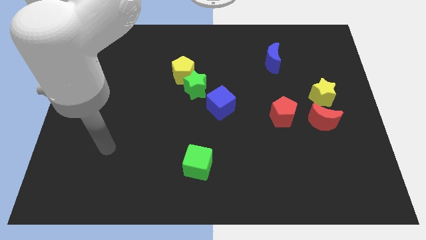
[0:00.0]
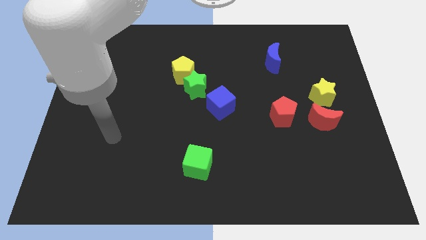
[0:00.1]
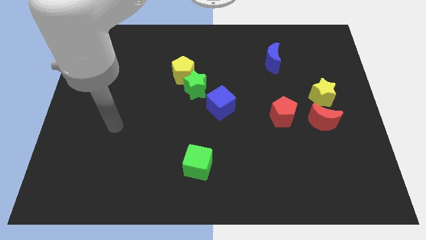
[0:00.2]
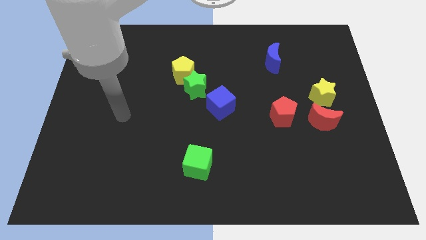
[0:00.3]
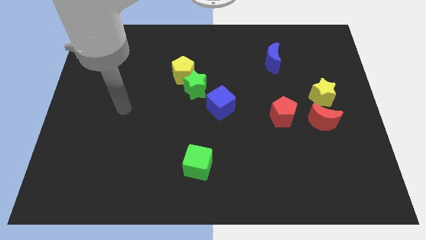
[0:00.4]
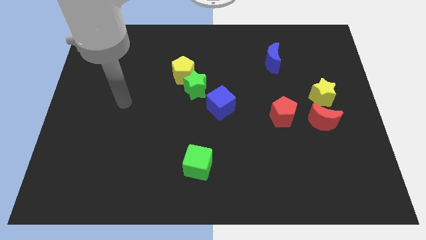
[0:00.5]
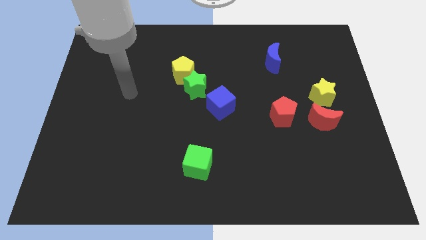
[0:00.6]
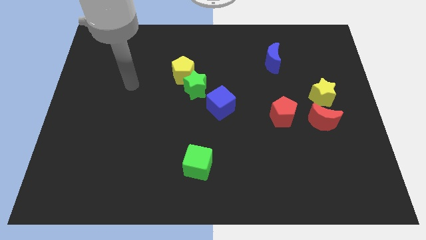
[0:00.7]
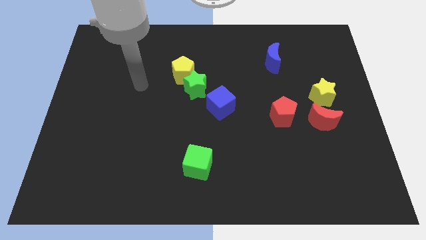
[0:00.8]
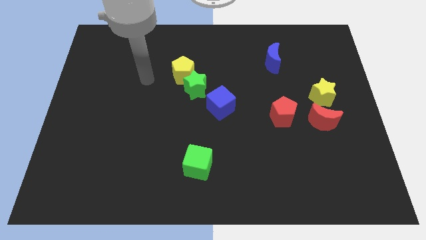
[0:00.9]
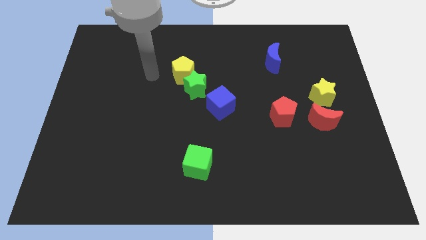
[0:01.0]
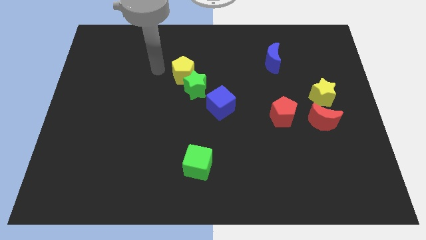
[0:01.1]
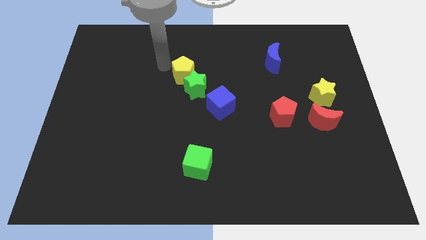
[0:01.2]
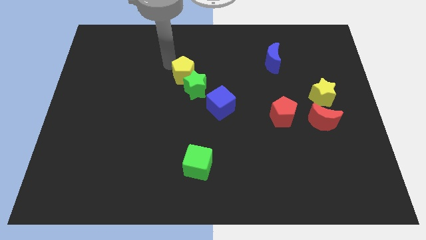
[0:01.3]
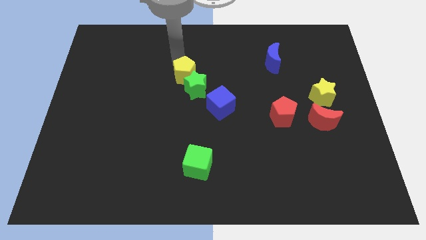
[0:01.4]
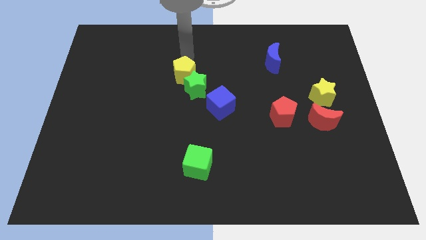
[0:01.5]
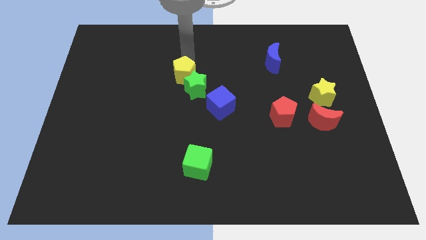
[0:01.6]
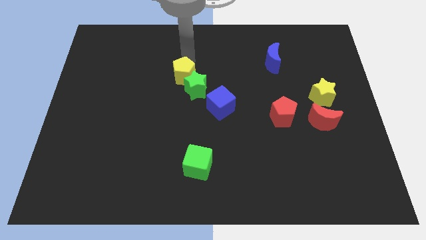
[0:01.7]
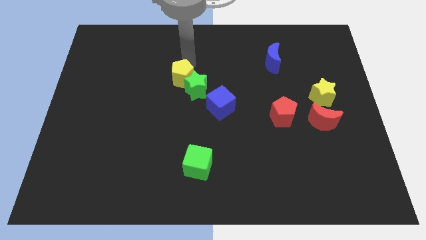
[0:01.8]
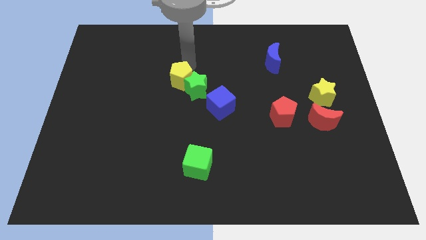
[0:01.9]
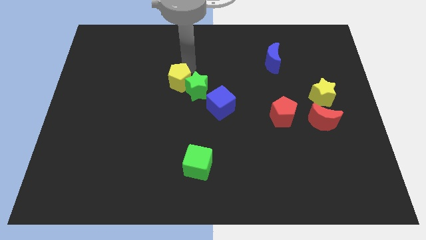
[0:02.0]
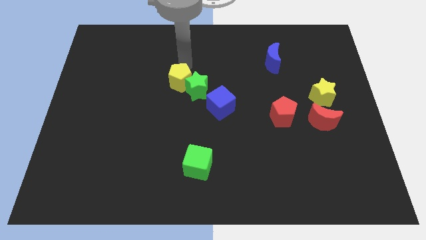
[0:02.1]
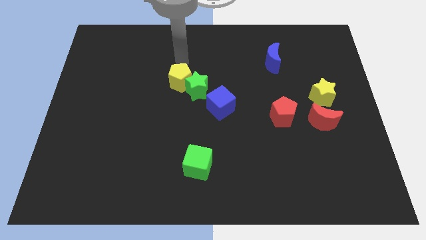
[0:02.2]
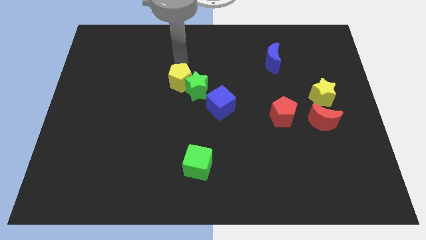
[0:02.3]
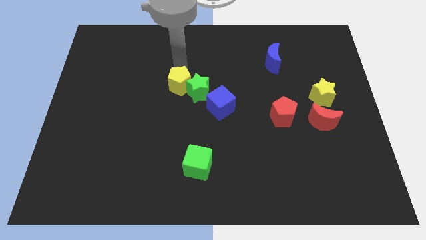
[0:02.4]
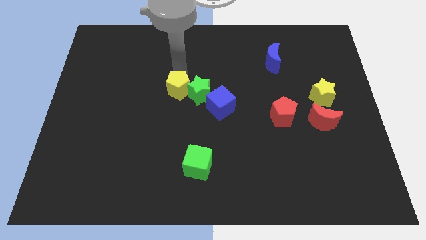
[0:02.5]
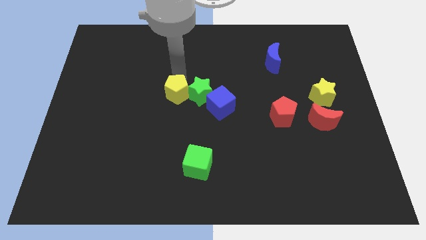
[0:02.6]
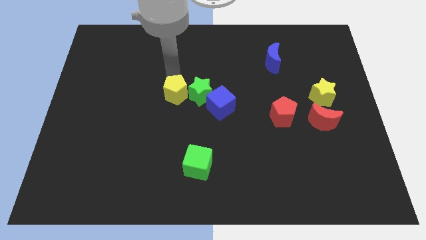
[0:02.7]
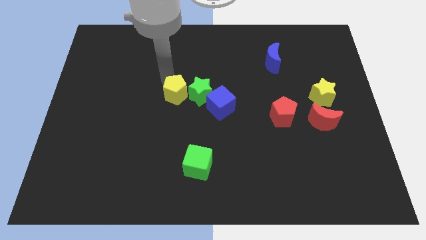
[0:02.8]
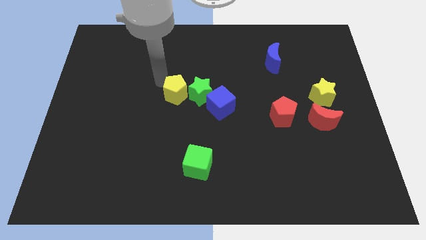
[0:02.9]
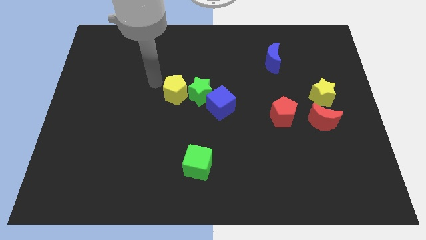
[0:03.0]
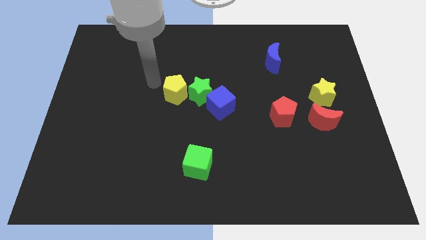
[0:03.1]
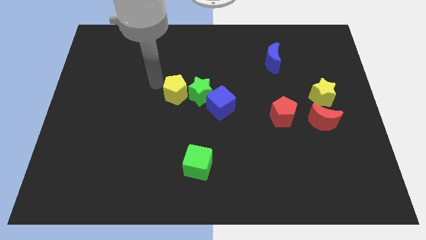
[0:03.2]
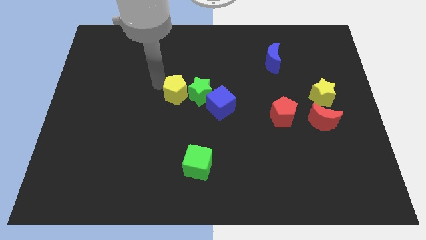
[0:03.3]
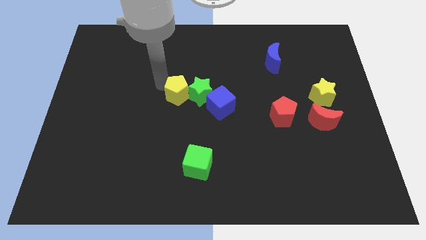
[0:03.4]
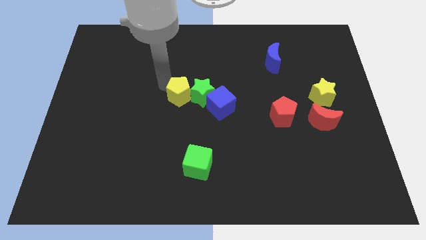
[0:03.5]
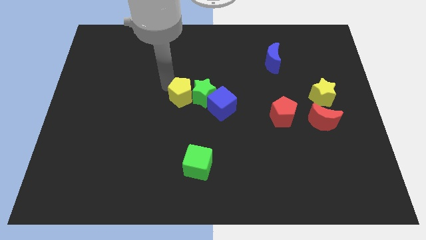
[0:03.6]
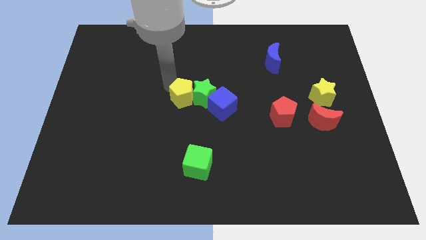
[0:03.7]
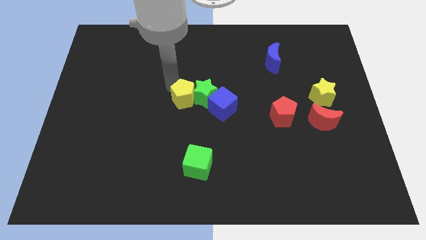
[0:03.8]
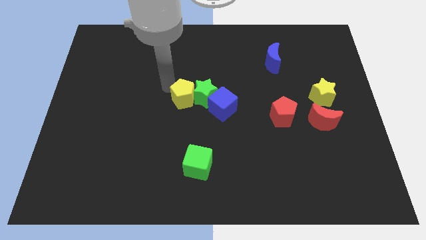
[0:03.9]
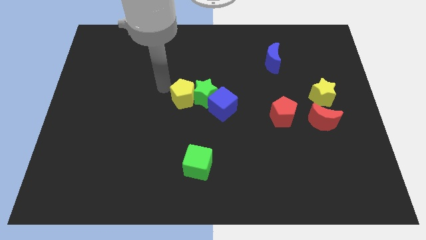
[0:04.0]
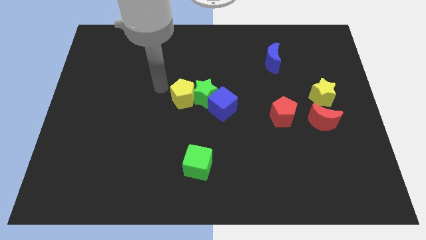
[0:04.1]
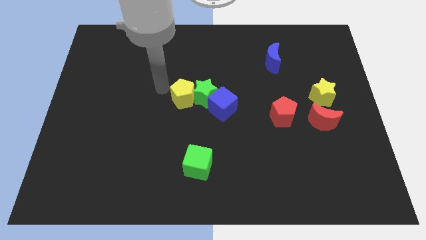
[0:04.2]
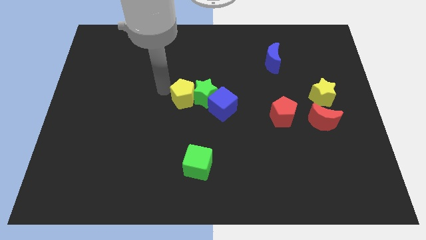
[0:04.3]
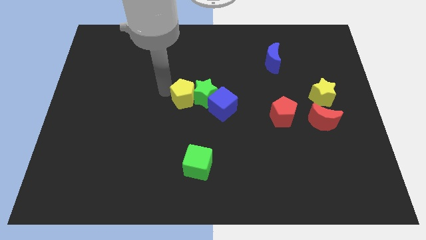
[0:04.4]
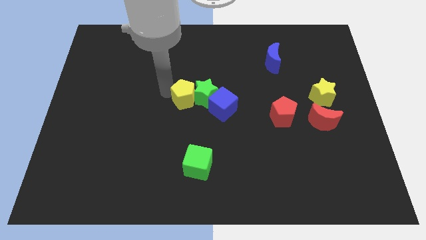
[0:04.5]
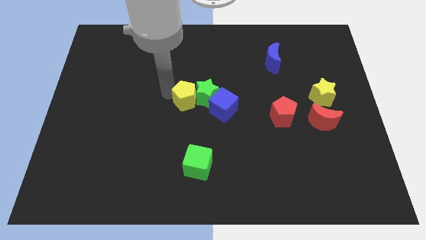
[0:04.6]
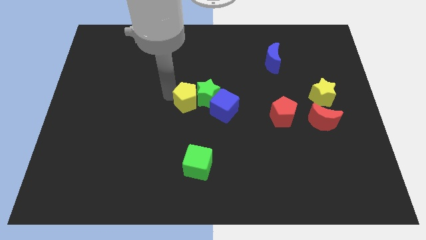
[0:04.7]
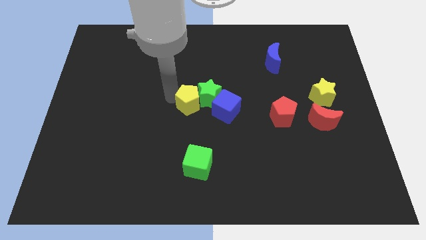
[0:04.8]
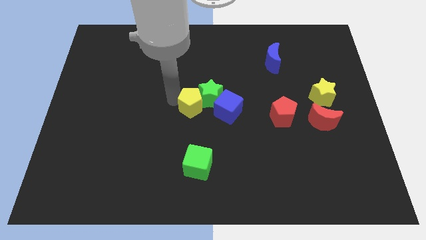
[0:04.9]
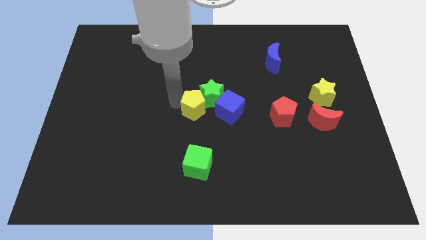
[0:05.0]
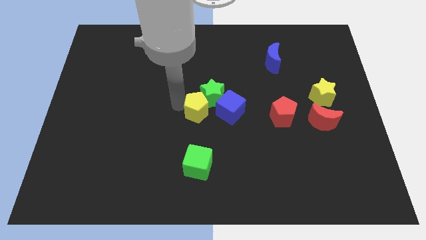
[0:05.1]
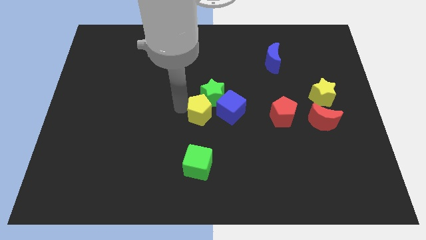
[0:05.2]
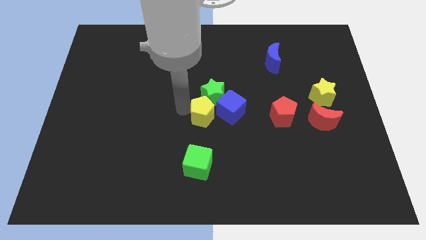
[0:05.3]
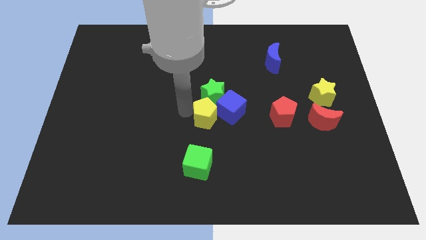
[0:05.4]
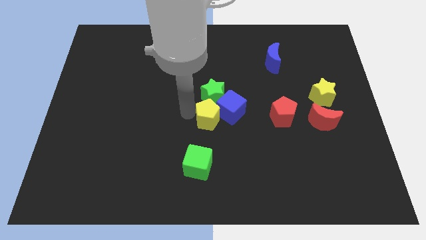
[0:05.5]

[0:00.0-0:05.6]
slide the yellow pentagon to the blue cube

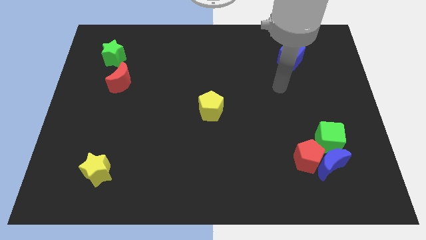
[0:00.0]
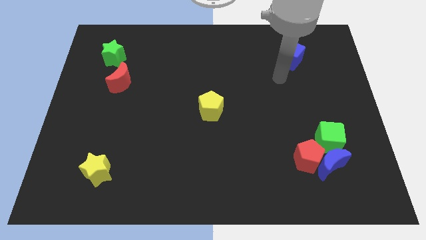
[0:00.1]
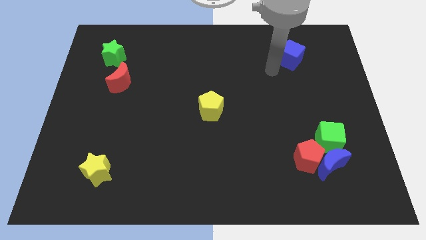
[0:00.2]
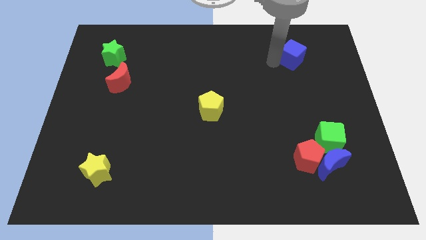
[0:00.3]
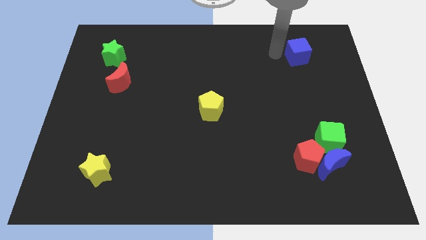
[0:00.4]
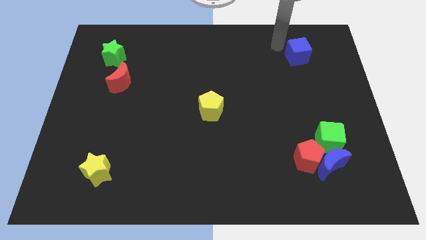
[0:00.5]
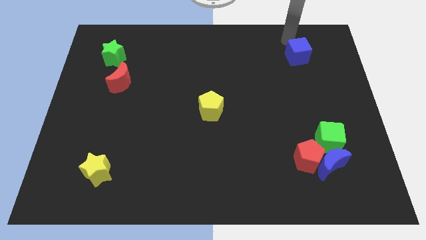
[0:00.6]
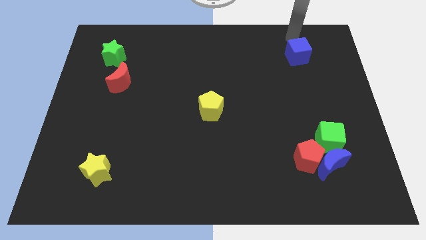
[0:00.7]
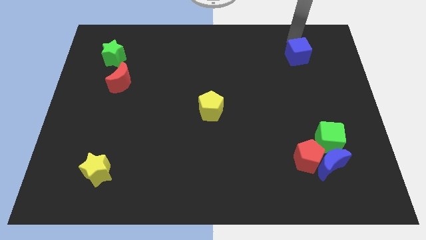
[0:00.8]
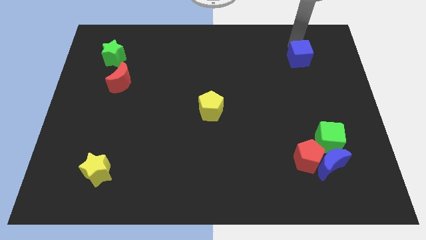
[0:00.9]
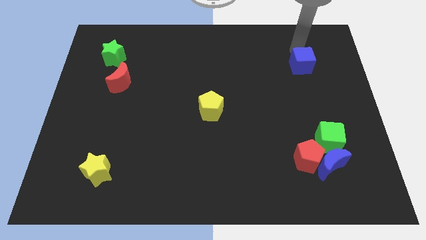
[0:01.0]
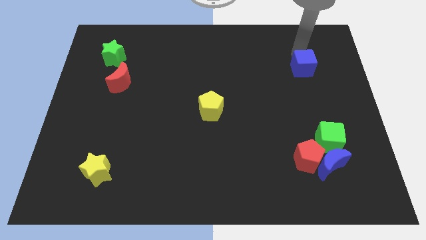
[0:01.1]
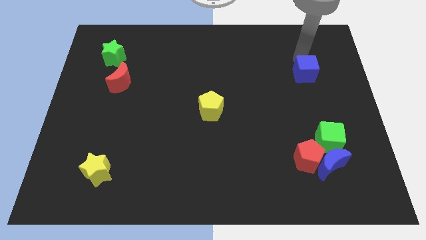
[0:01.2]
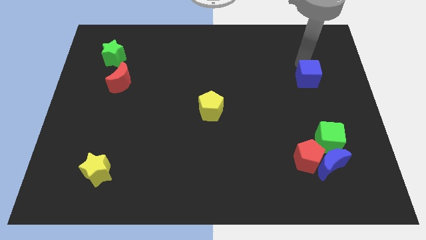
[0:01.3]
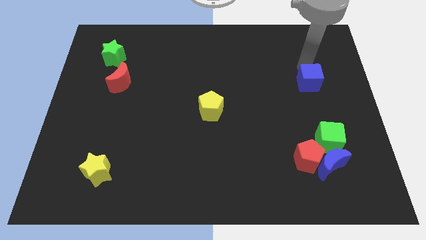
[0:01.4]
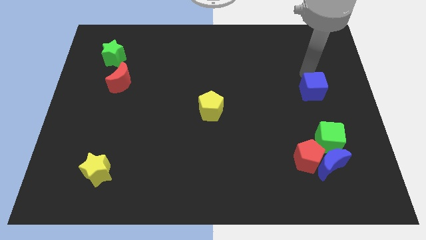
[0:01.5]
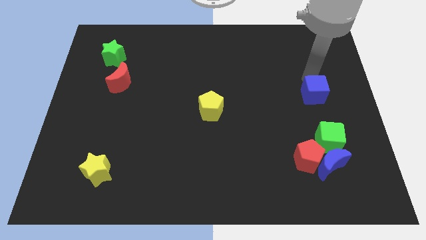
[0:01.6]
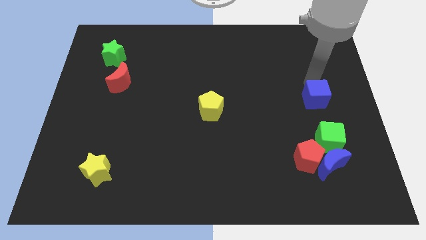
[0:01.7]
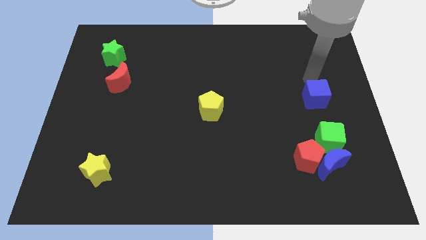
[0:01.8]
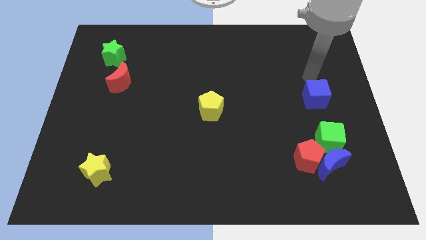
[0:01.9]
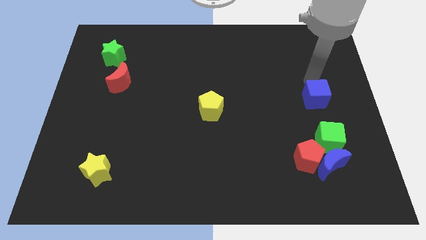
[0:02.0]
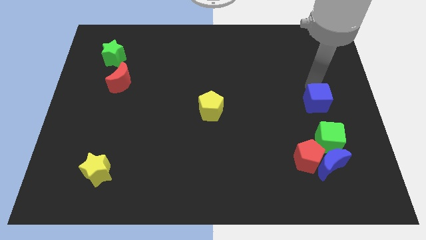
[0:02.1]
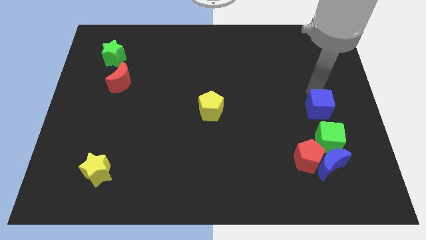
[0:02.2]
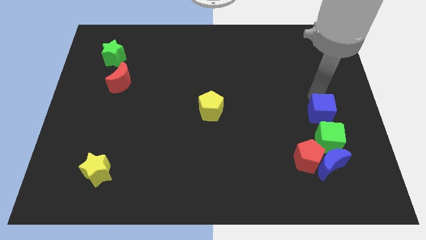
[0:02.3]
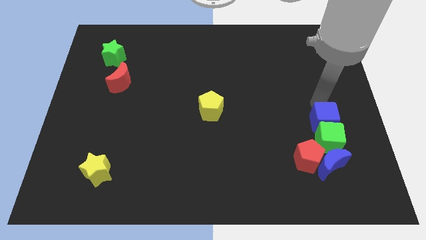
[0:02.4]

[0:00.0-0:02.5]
slide the blue cube towards the green cube

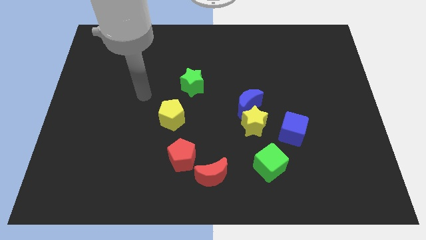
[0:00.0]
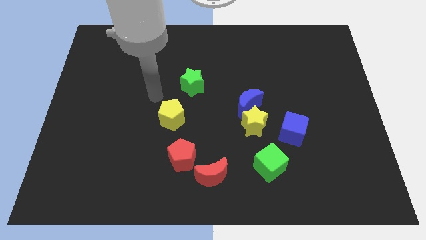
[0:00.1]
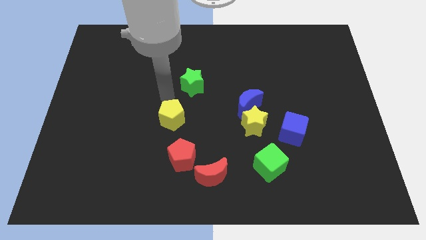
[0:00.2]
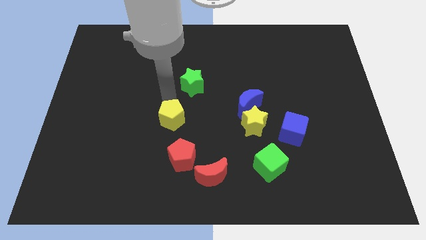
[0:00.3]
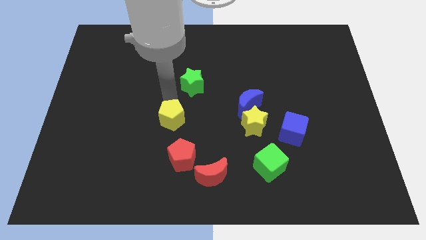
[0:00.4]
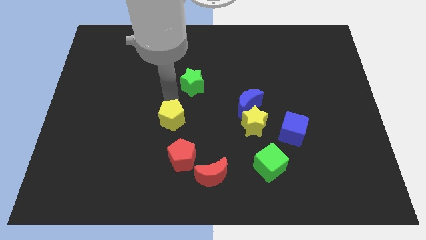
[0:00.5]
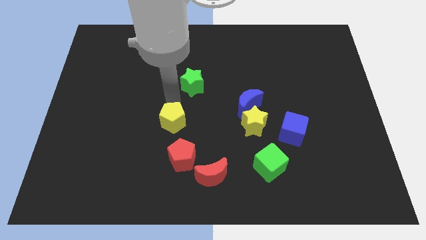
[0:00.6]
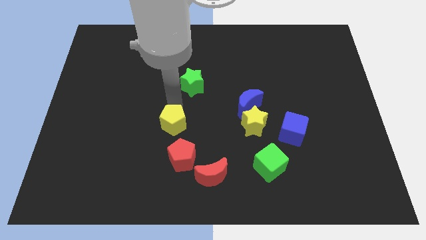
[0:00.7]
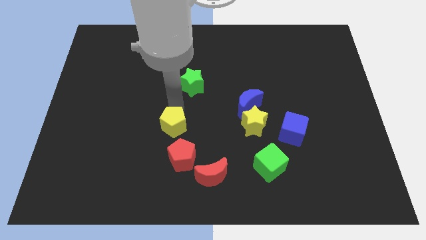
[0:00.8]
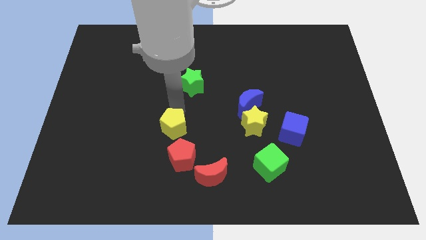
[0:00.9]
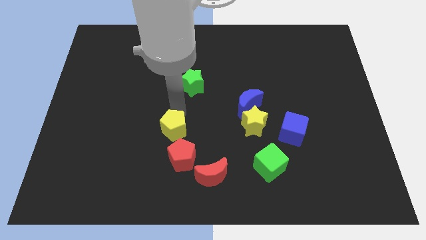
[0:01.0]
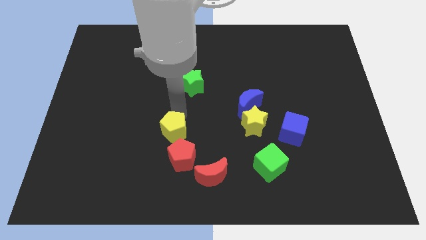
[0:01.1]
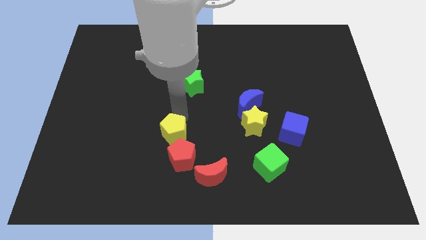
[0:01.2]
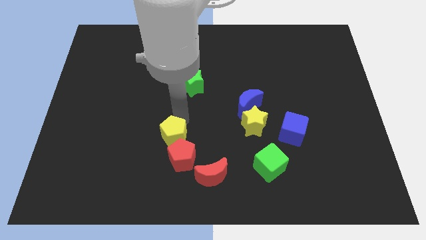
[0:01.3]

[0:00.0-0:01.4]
put the yellow pentagon to the red pentagon
